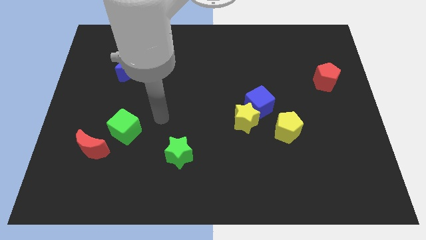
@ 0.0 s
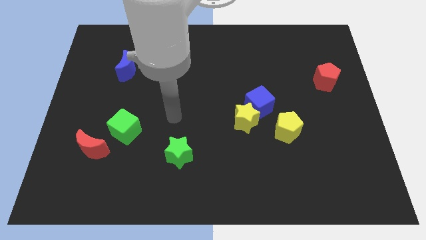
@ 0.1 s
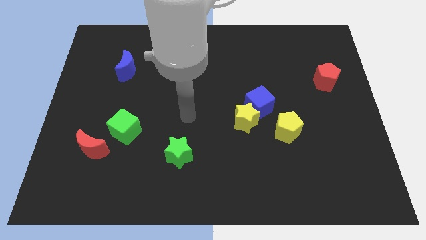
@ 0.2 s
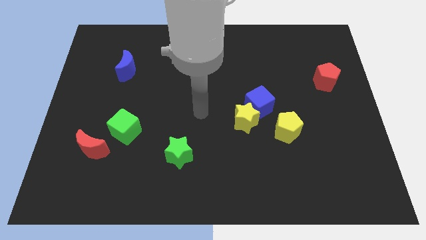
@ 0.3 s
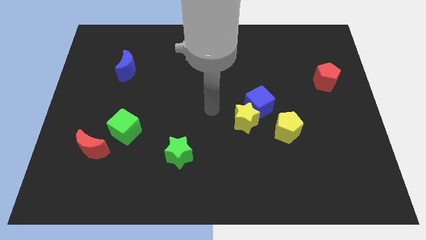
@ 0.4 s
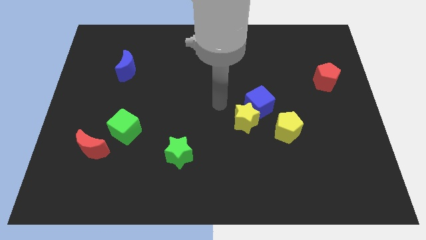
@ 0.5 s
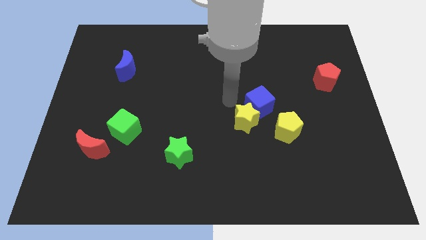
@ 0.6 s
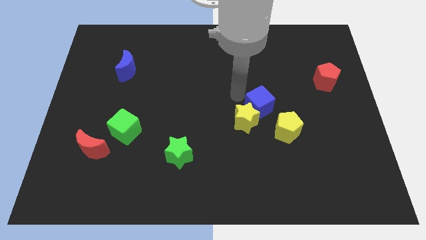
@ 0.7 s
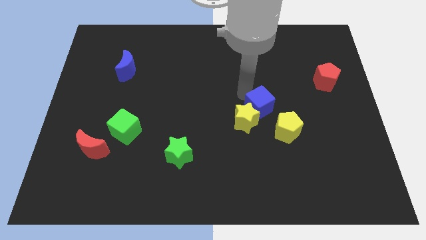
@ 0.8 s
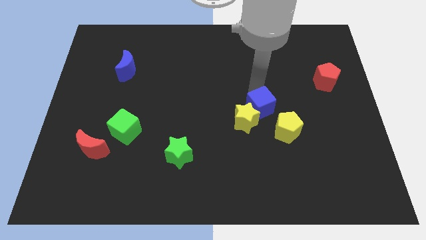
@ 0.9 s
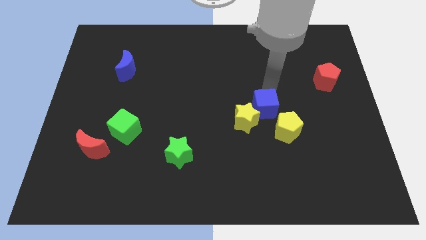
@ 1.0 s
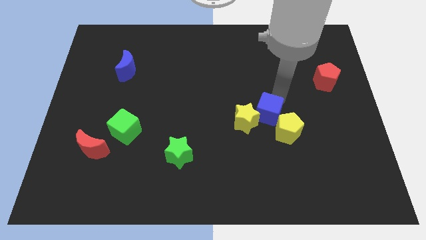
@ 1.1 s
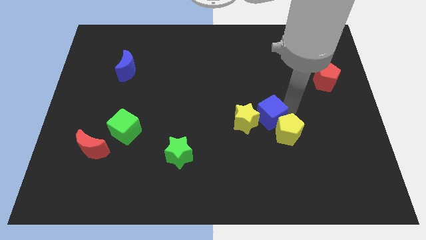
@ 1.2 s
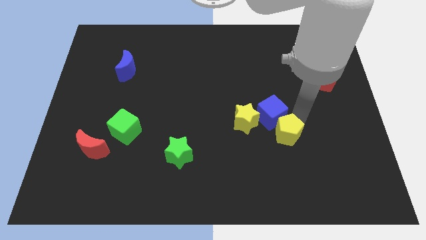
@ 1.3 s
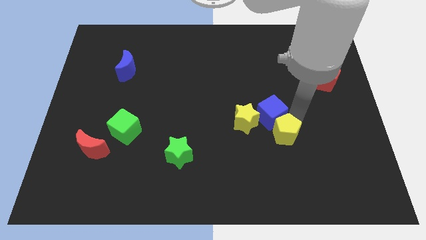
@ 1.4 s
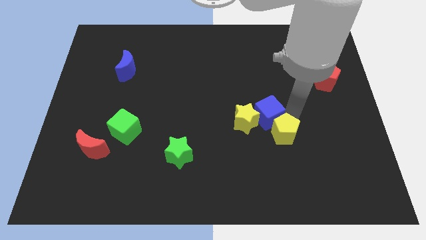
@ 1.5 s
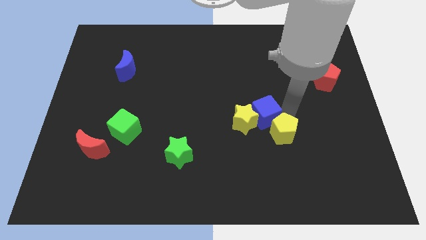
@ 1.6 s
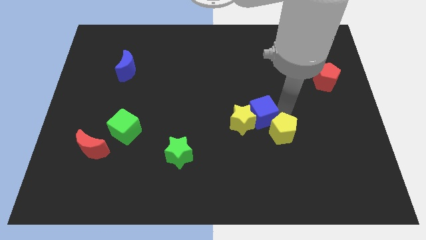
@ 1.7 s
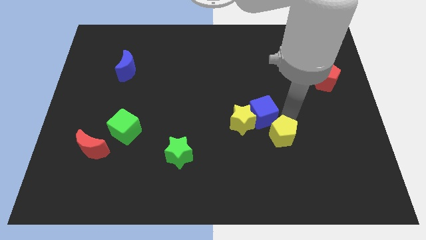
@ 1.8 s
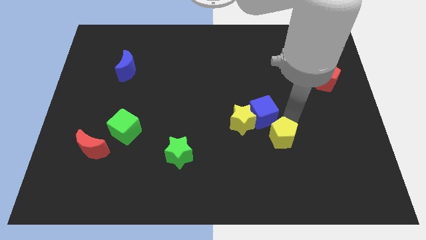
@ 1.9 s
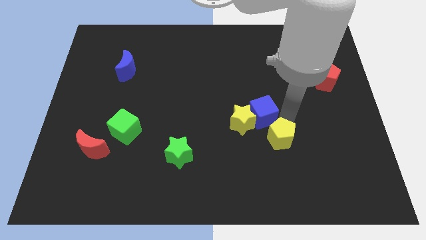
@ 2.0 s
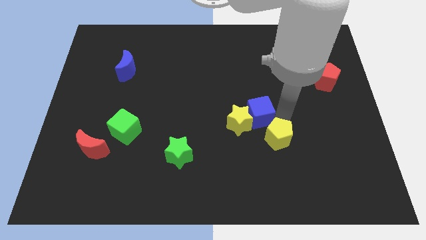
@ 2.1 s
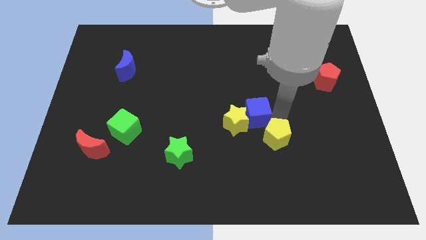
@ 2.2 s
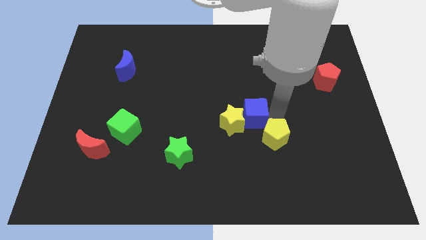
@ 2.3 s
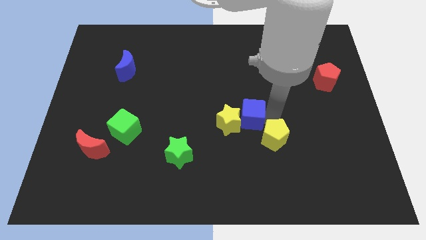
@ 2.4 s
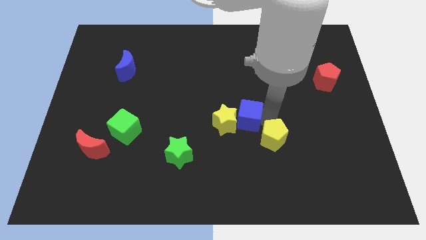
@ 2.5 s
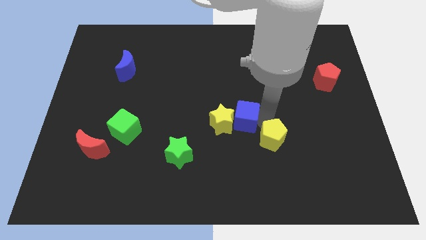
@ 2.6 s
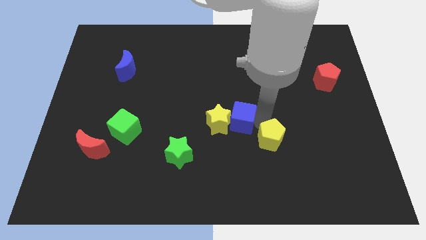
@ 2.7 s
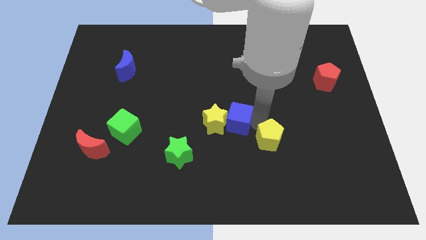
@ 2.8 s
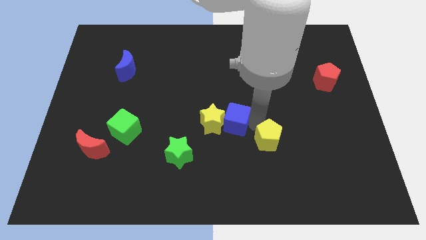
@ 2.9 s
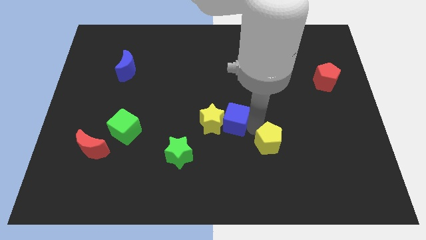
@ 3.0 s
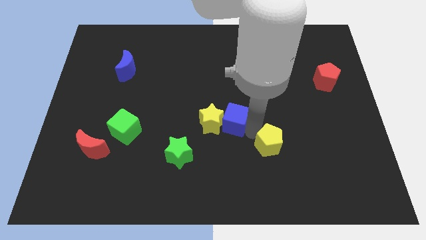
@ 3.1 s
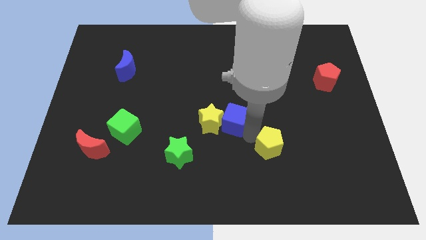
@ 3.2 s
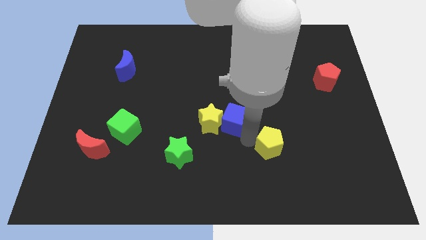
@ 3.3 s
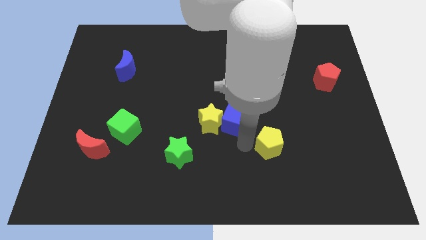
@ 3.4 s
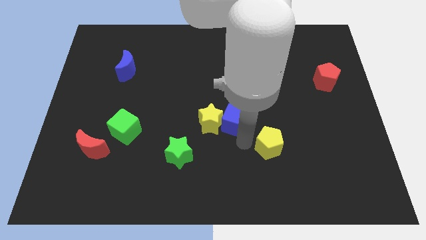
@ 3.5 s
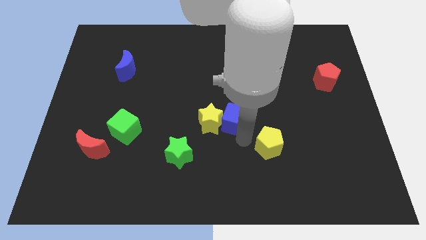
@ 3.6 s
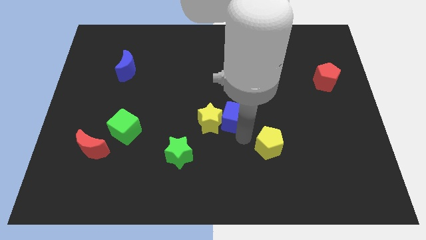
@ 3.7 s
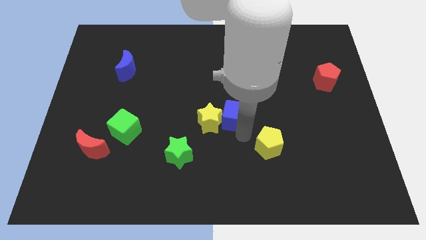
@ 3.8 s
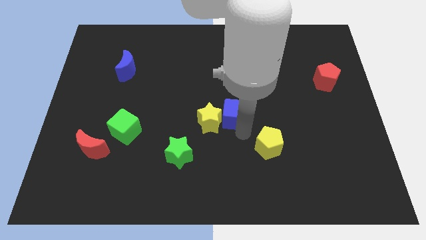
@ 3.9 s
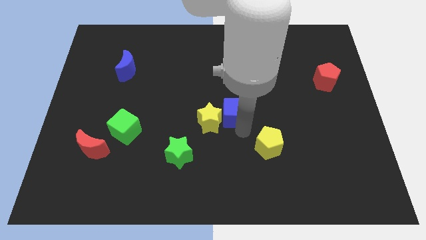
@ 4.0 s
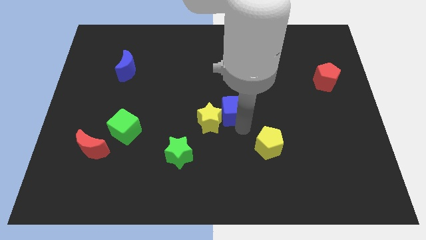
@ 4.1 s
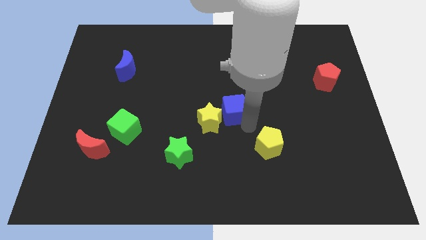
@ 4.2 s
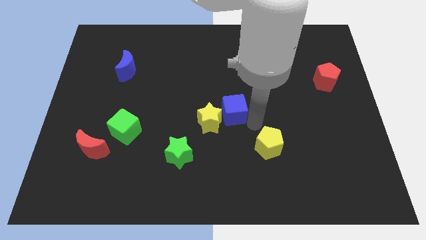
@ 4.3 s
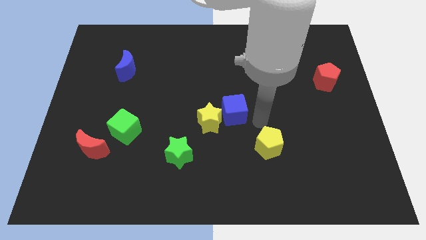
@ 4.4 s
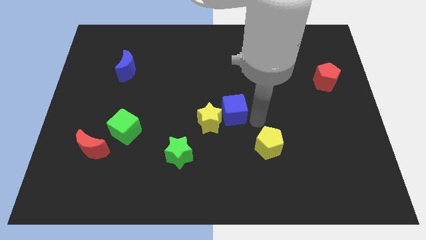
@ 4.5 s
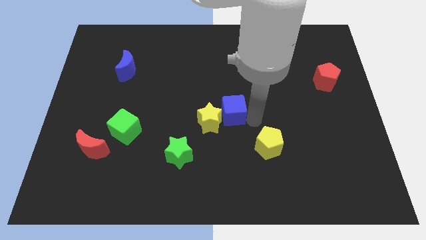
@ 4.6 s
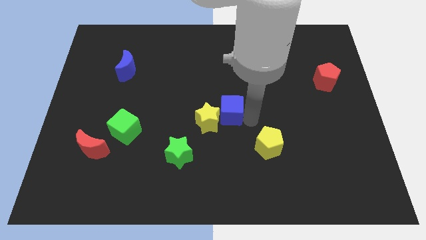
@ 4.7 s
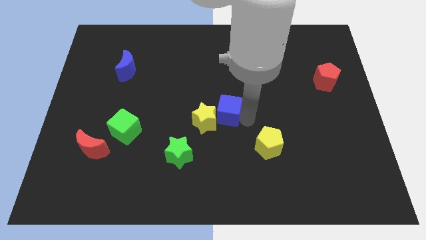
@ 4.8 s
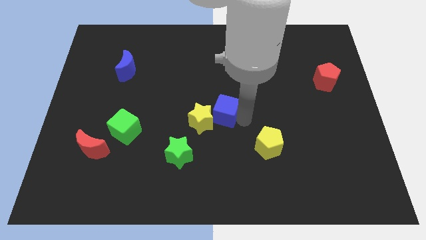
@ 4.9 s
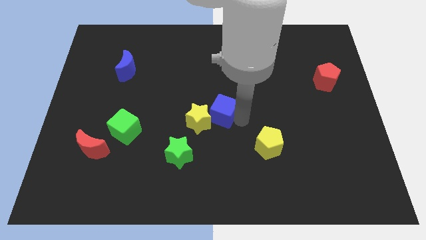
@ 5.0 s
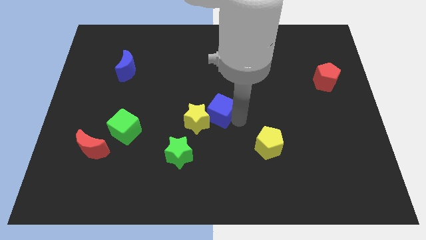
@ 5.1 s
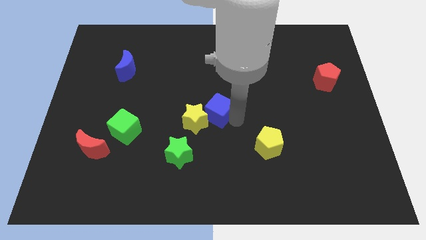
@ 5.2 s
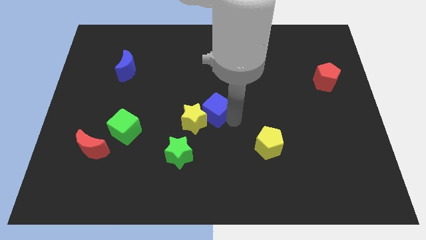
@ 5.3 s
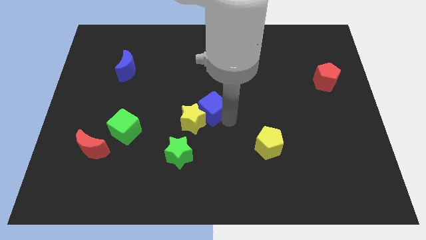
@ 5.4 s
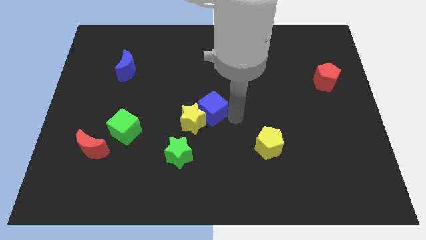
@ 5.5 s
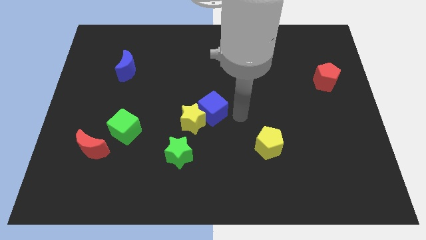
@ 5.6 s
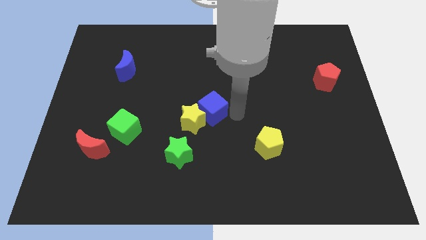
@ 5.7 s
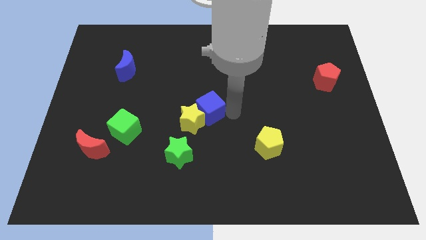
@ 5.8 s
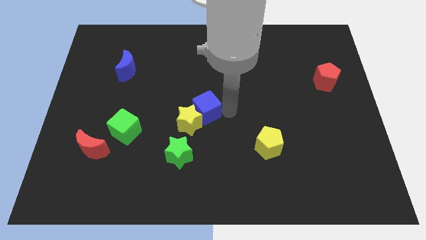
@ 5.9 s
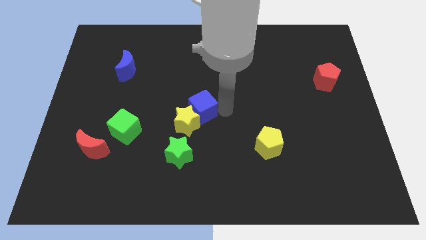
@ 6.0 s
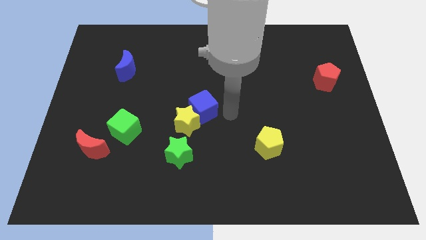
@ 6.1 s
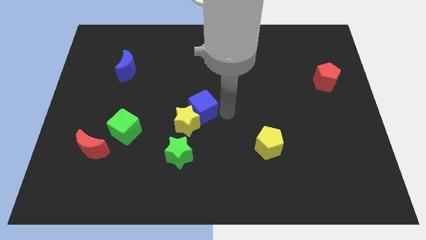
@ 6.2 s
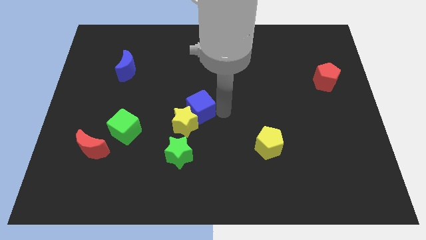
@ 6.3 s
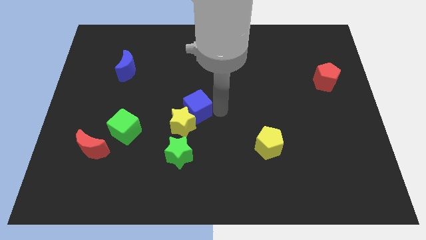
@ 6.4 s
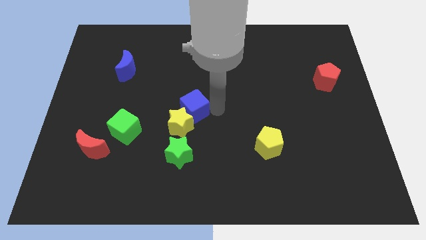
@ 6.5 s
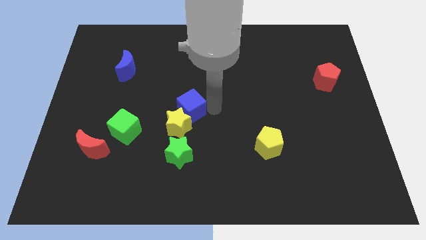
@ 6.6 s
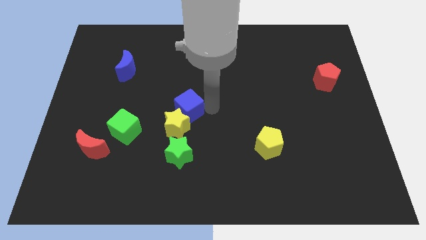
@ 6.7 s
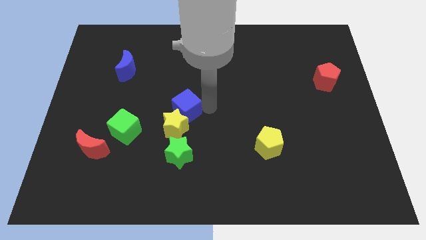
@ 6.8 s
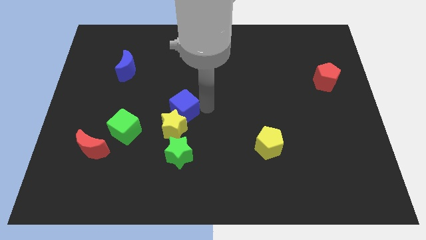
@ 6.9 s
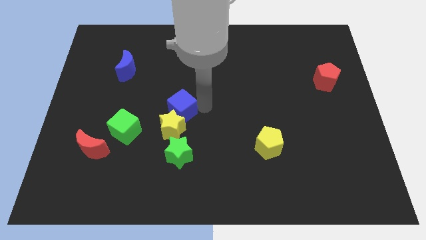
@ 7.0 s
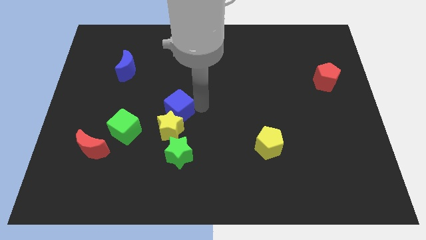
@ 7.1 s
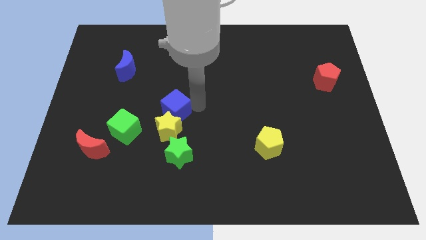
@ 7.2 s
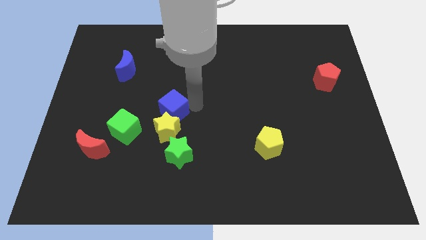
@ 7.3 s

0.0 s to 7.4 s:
push the blue cube to the left

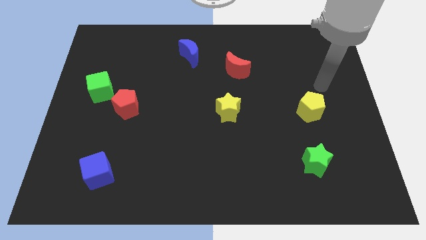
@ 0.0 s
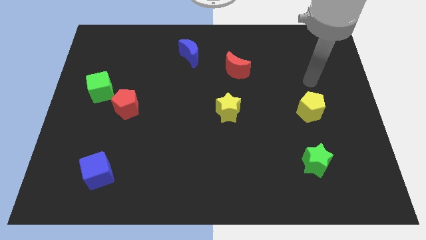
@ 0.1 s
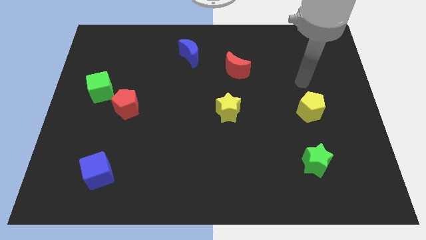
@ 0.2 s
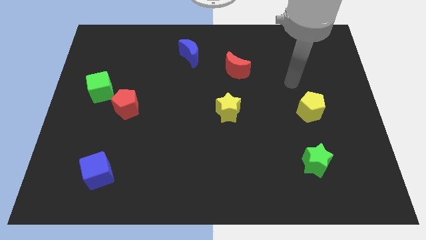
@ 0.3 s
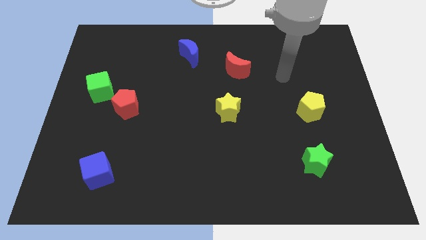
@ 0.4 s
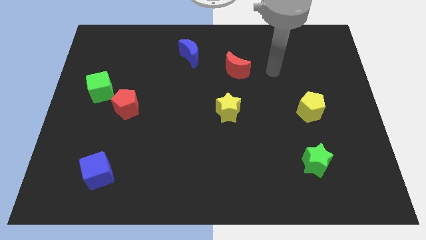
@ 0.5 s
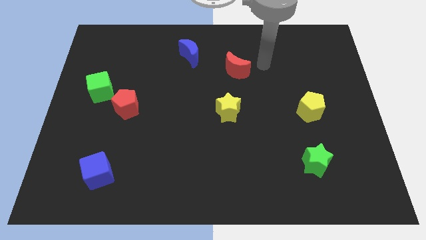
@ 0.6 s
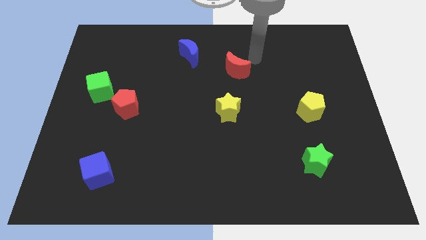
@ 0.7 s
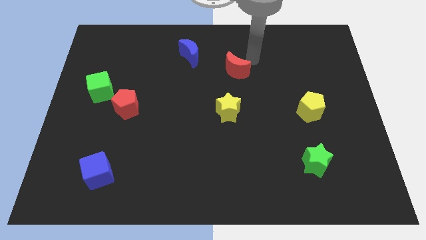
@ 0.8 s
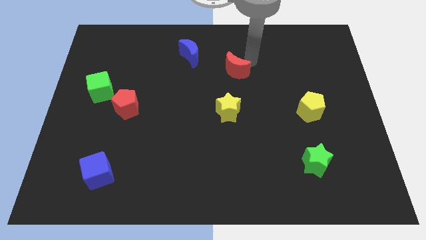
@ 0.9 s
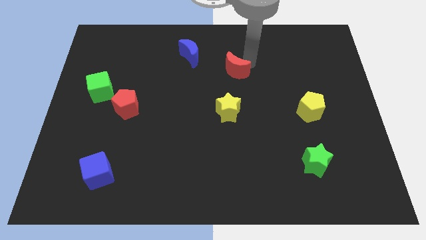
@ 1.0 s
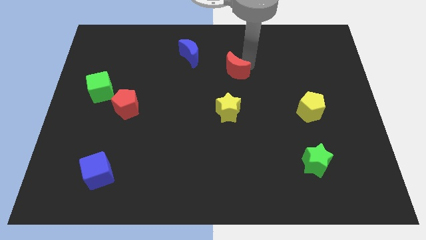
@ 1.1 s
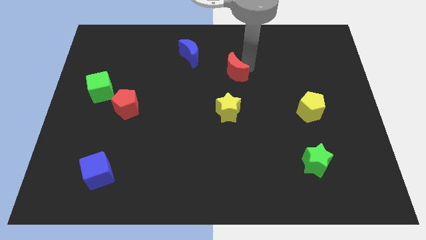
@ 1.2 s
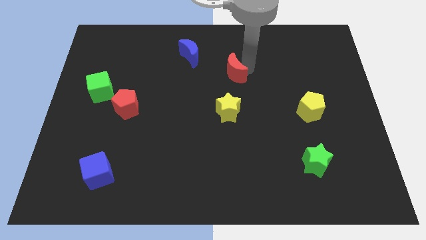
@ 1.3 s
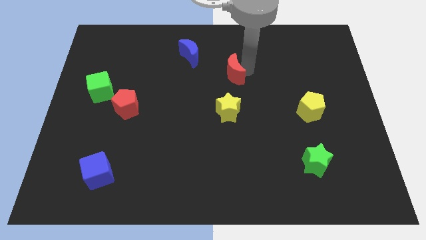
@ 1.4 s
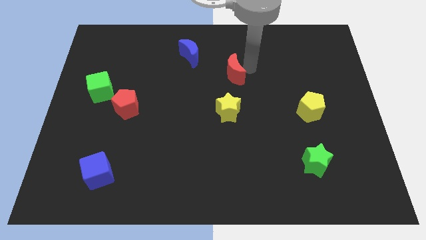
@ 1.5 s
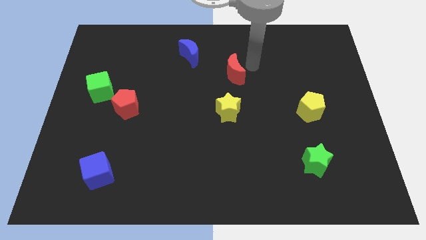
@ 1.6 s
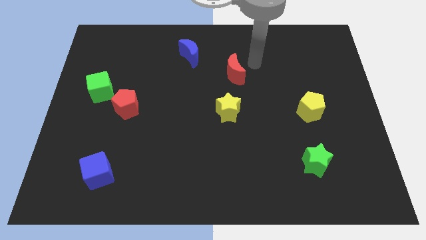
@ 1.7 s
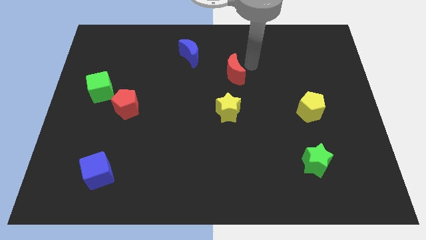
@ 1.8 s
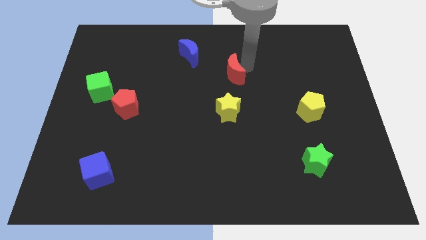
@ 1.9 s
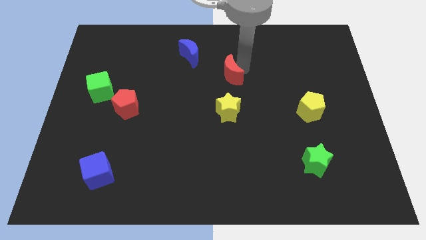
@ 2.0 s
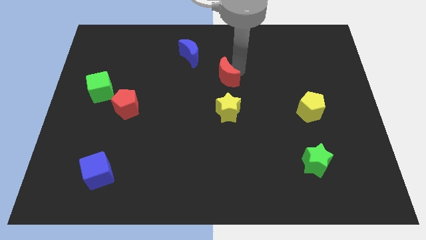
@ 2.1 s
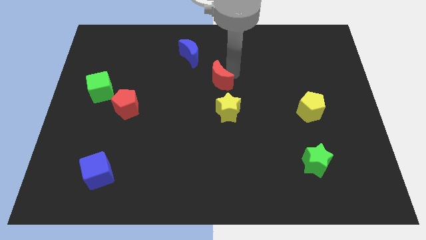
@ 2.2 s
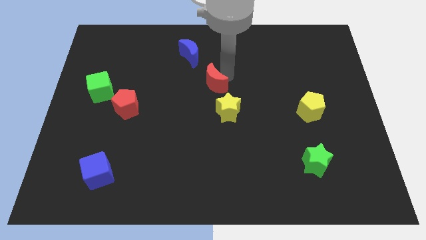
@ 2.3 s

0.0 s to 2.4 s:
move the red moon downwards and then left a little bit
